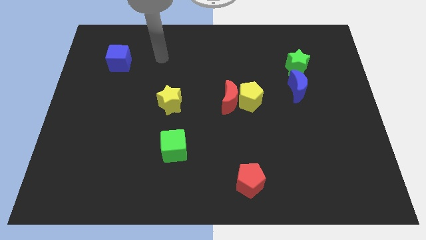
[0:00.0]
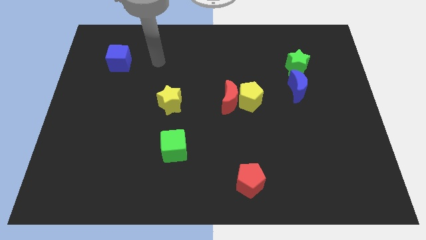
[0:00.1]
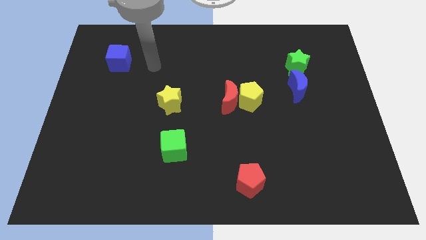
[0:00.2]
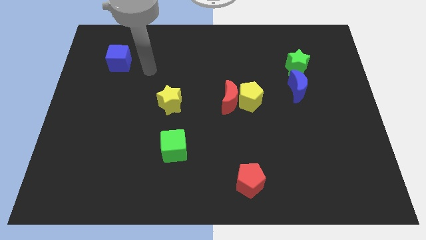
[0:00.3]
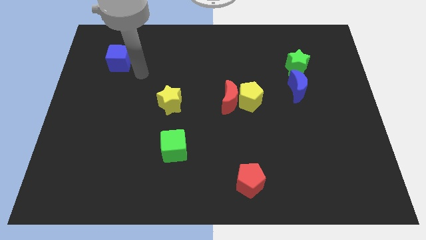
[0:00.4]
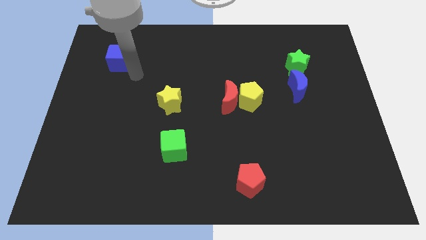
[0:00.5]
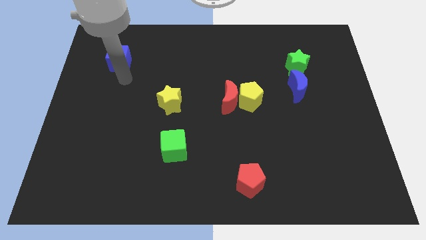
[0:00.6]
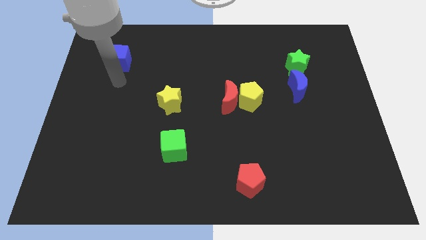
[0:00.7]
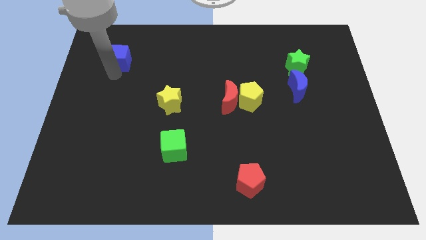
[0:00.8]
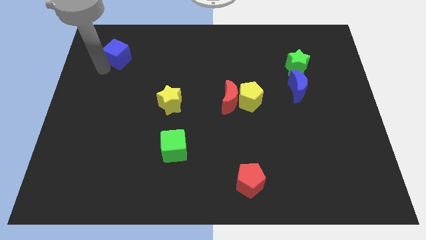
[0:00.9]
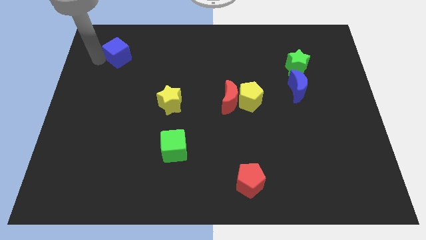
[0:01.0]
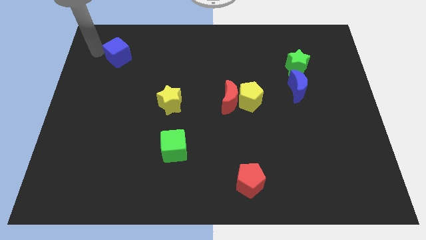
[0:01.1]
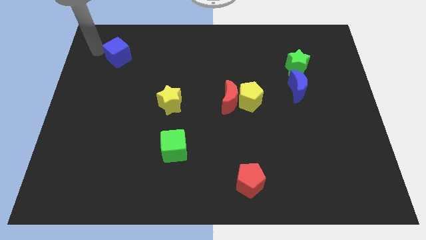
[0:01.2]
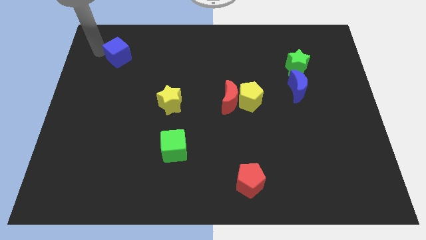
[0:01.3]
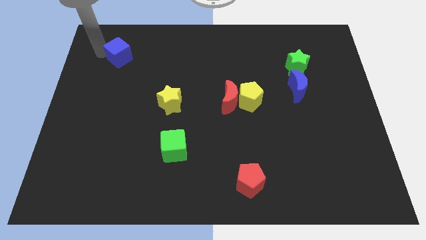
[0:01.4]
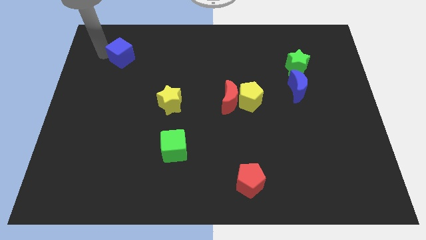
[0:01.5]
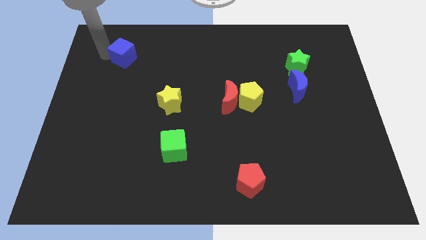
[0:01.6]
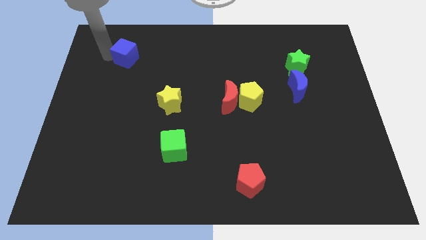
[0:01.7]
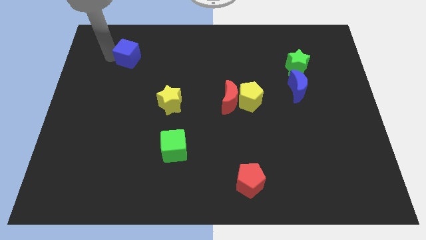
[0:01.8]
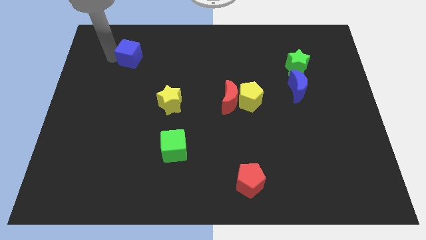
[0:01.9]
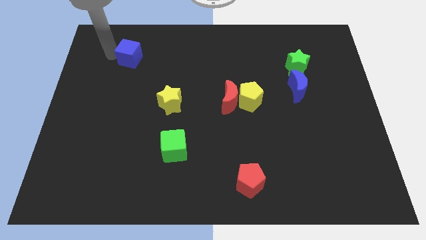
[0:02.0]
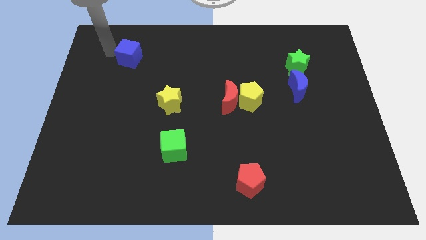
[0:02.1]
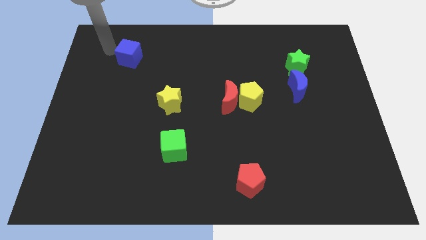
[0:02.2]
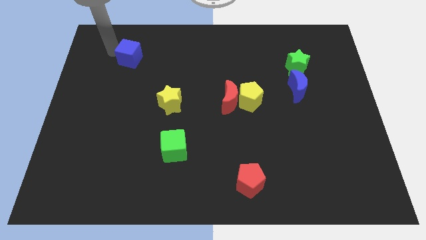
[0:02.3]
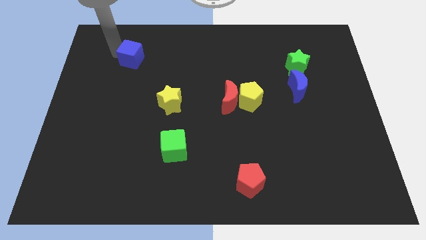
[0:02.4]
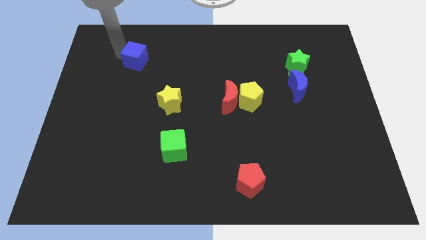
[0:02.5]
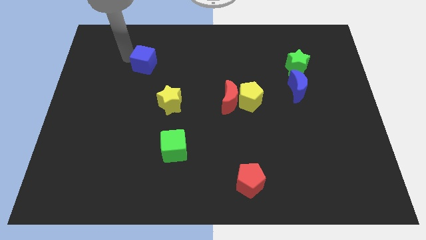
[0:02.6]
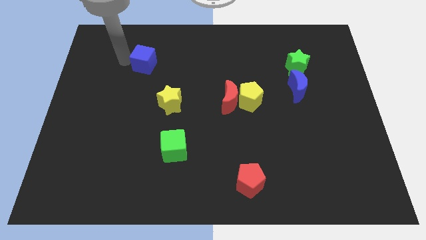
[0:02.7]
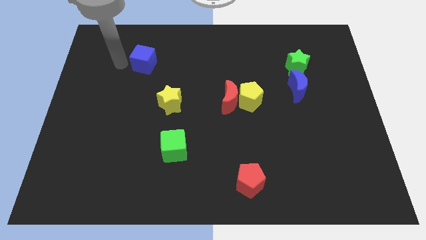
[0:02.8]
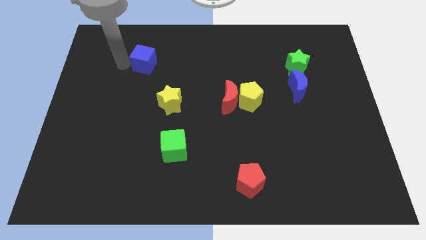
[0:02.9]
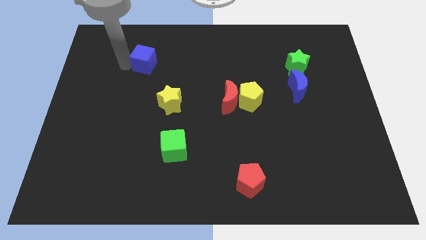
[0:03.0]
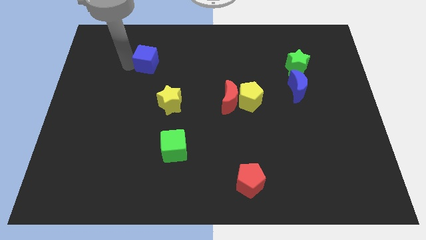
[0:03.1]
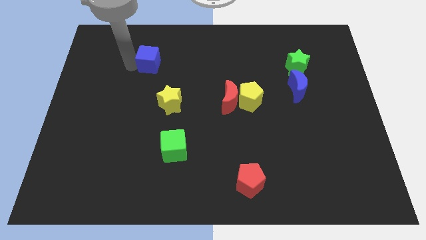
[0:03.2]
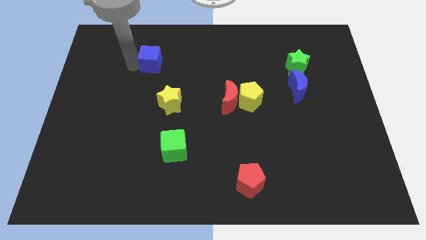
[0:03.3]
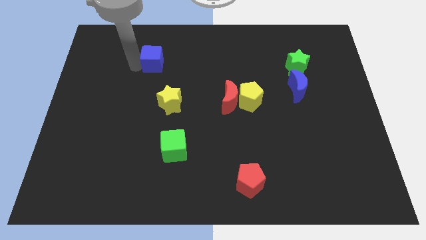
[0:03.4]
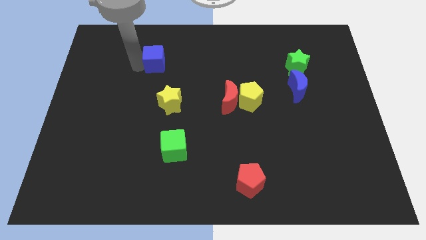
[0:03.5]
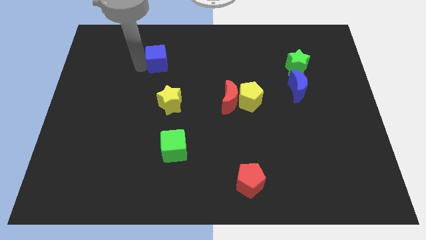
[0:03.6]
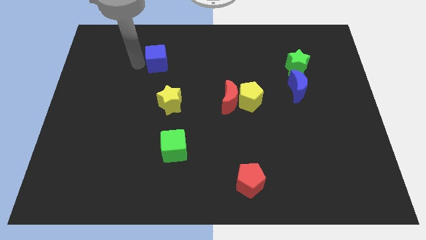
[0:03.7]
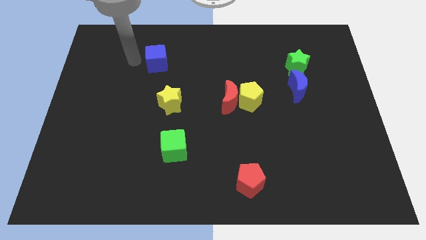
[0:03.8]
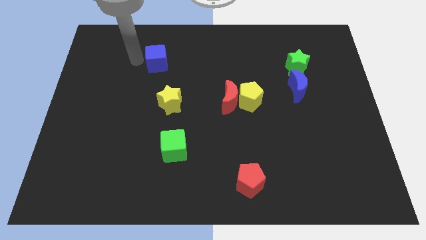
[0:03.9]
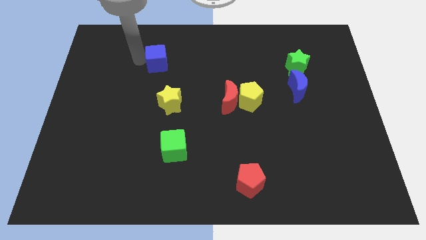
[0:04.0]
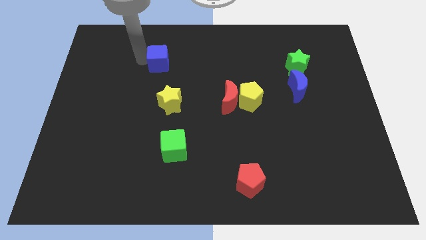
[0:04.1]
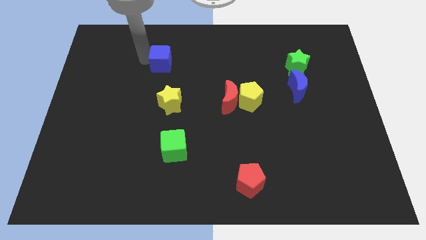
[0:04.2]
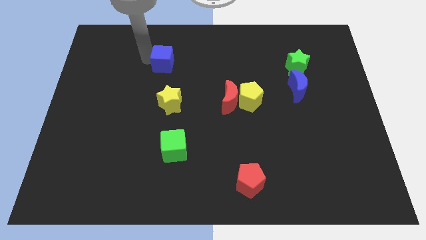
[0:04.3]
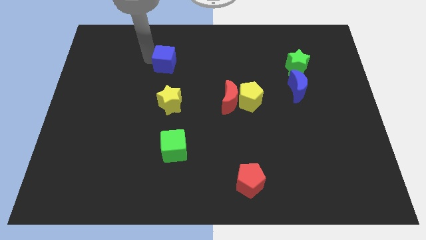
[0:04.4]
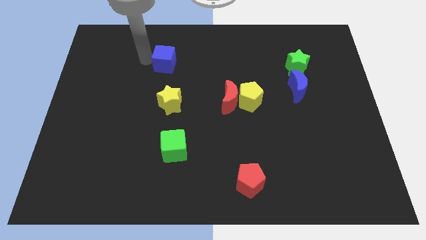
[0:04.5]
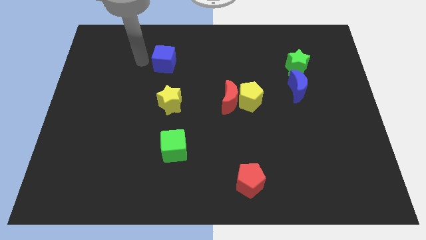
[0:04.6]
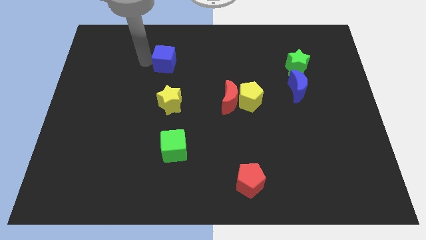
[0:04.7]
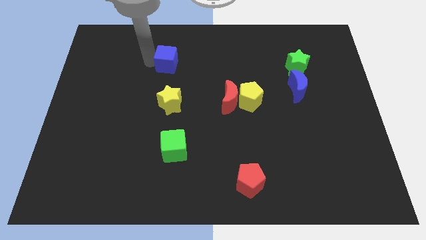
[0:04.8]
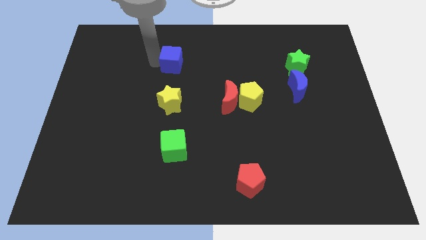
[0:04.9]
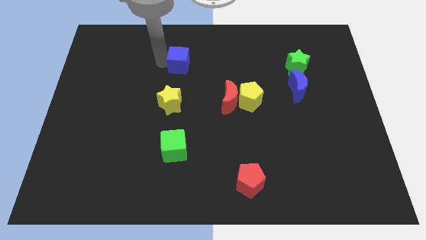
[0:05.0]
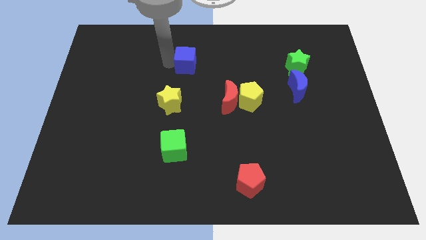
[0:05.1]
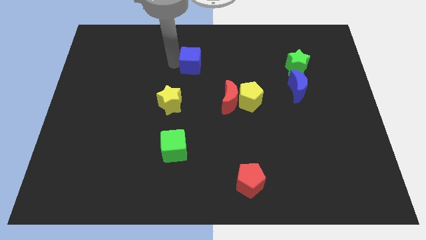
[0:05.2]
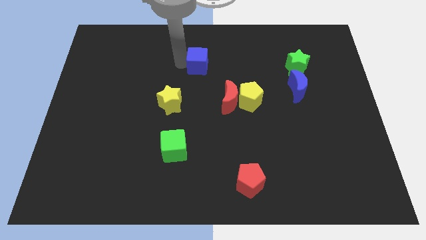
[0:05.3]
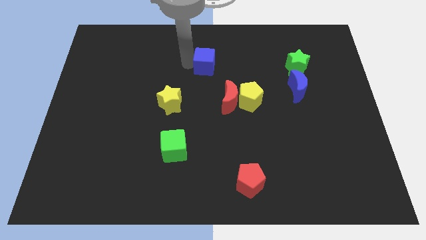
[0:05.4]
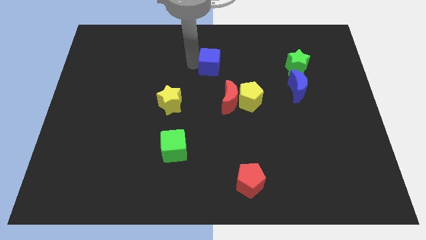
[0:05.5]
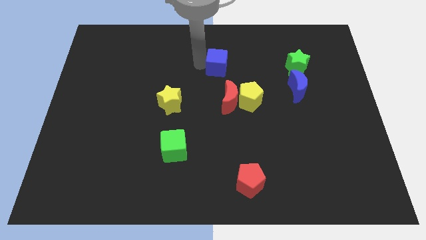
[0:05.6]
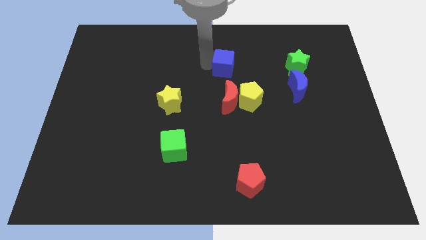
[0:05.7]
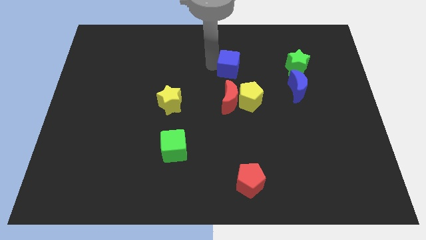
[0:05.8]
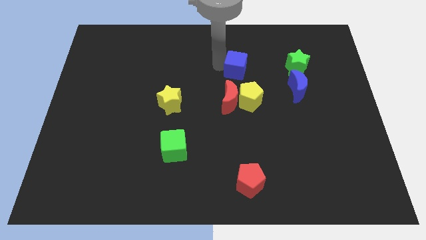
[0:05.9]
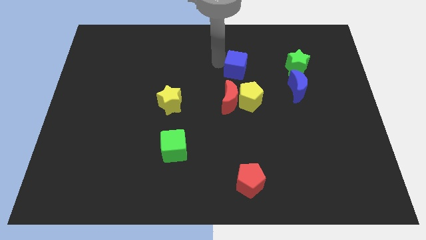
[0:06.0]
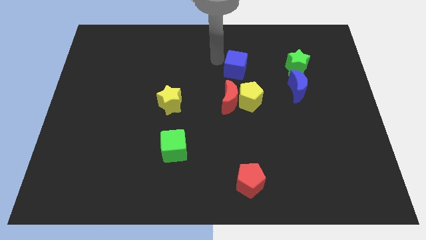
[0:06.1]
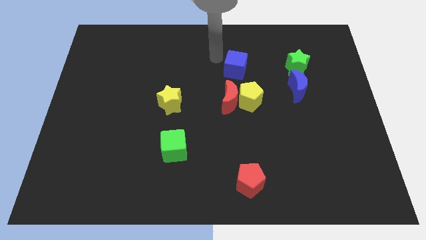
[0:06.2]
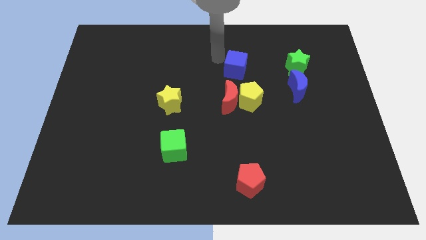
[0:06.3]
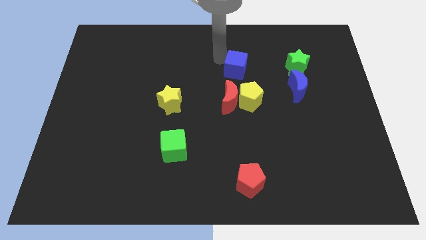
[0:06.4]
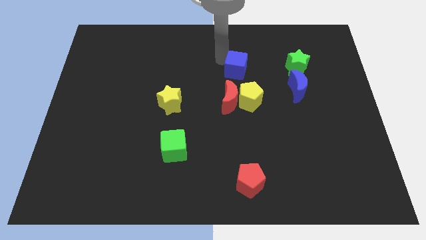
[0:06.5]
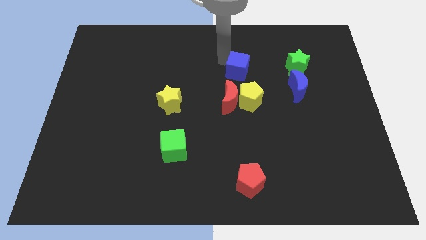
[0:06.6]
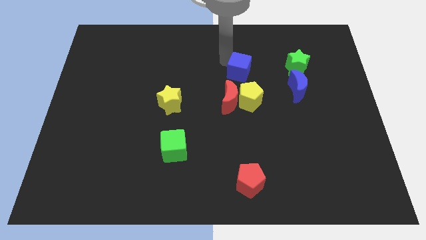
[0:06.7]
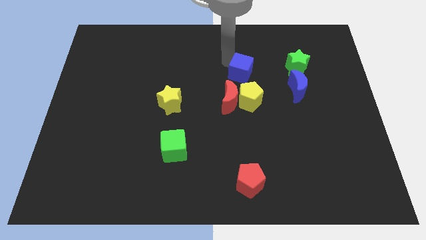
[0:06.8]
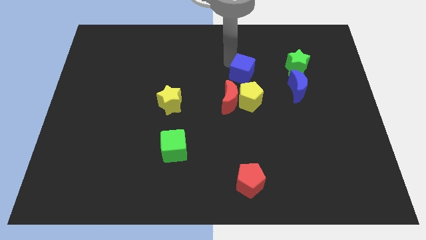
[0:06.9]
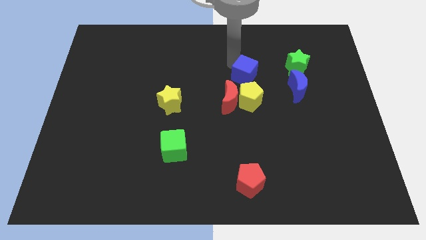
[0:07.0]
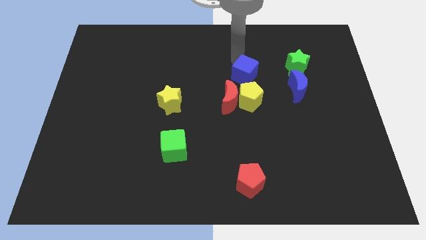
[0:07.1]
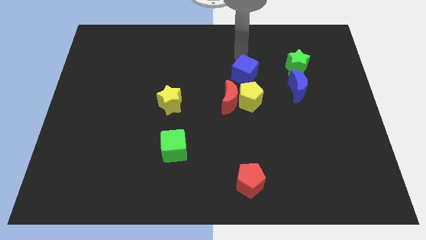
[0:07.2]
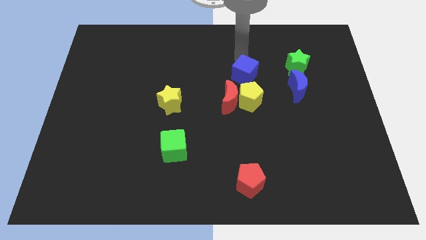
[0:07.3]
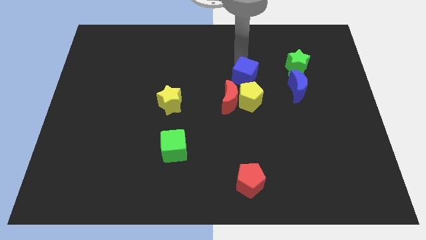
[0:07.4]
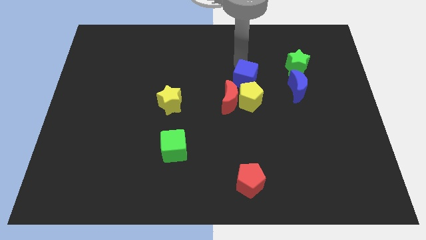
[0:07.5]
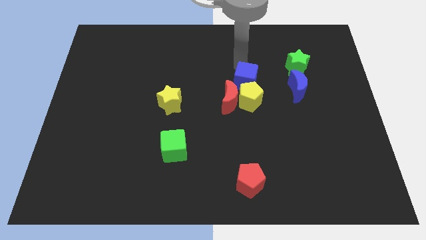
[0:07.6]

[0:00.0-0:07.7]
move the blue cube close to the yellow pentagon
